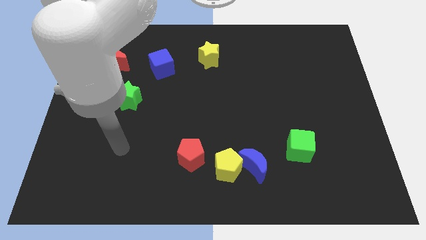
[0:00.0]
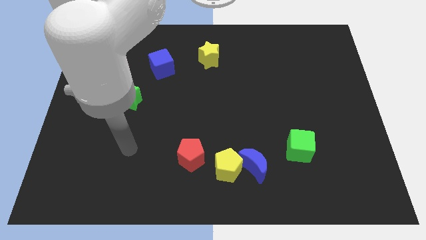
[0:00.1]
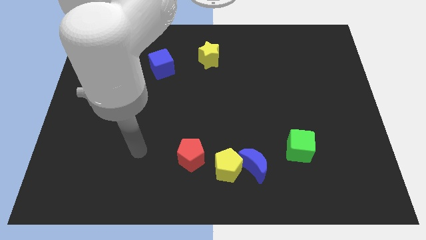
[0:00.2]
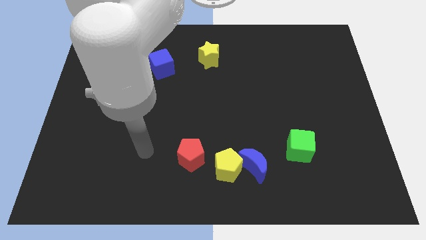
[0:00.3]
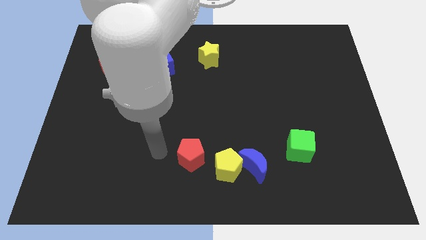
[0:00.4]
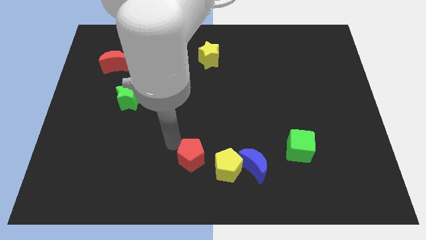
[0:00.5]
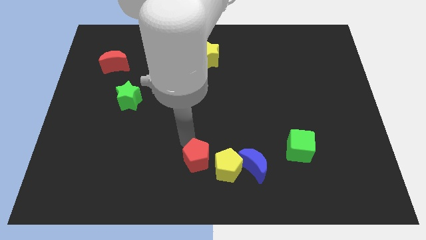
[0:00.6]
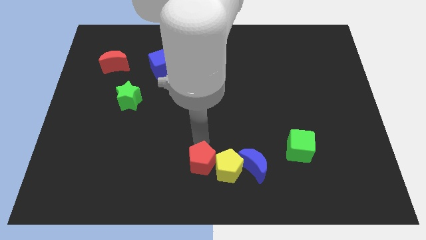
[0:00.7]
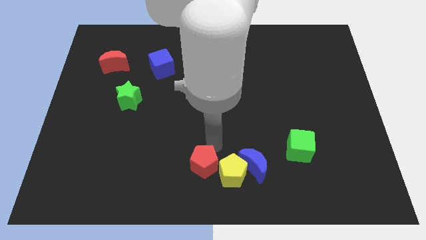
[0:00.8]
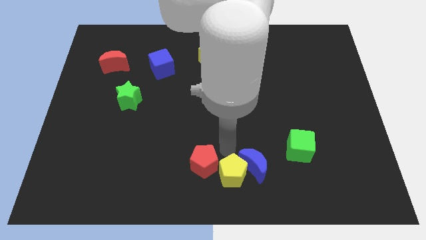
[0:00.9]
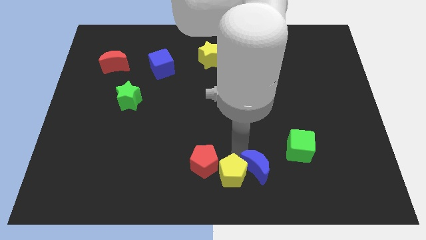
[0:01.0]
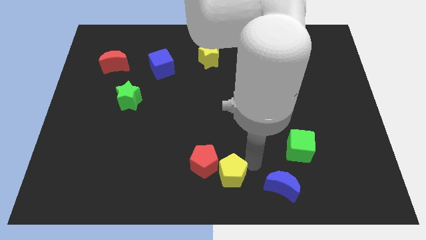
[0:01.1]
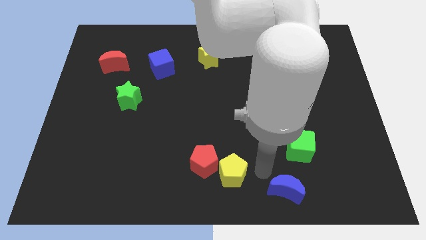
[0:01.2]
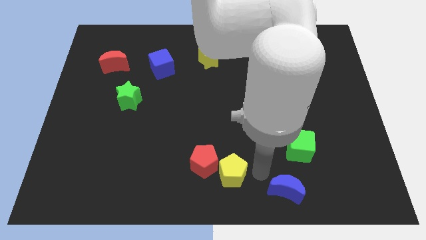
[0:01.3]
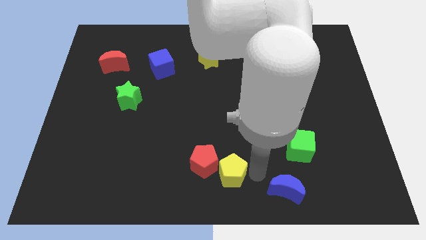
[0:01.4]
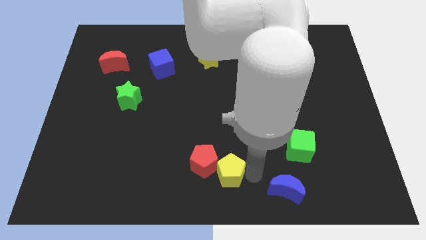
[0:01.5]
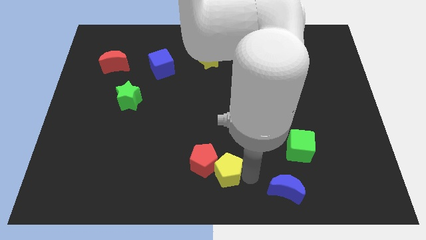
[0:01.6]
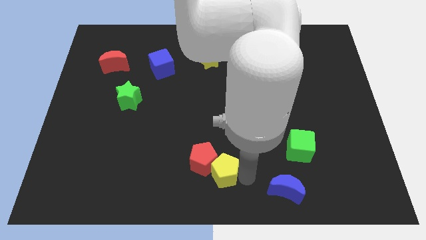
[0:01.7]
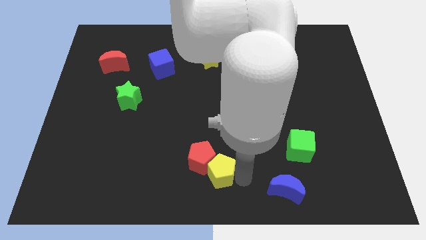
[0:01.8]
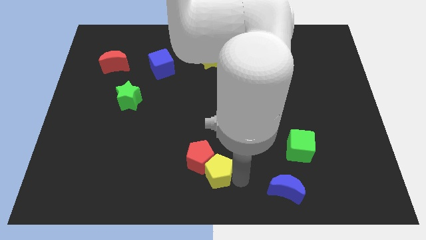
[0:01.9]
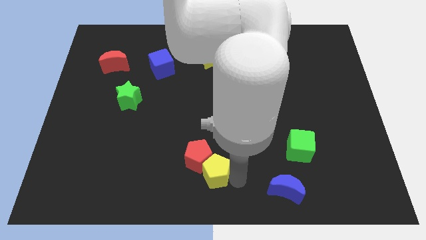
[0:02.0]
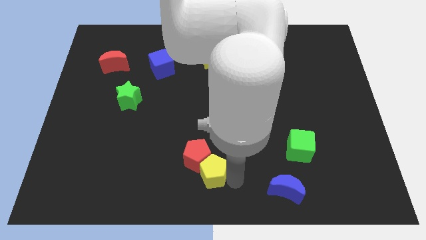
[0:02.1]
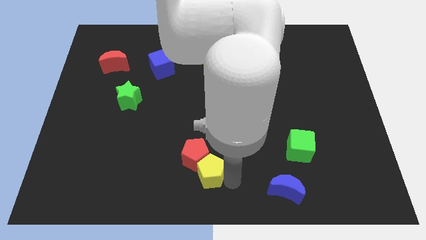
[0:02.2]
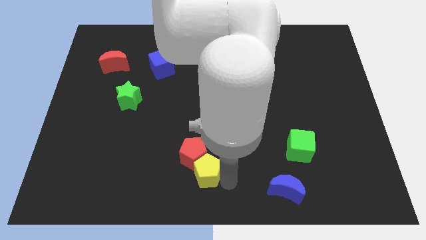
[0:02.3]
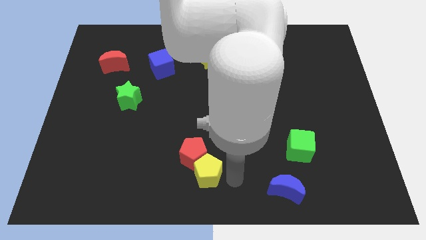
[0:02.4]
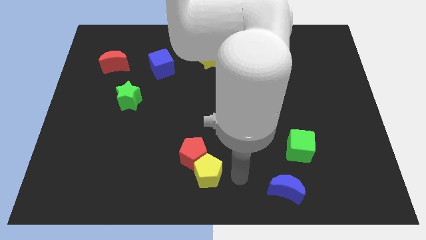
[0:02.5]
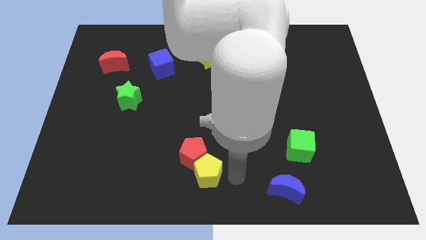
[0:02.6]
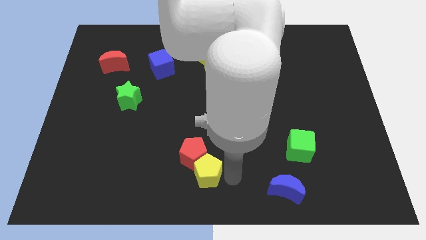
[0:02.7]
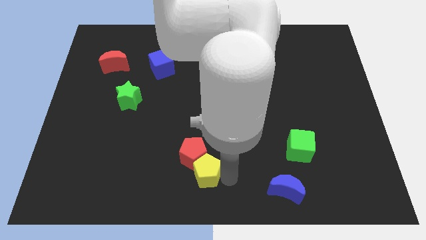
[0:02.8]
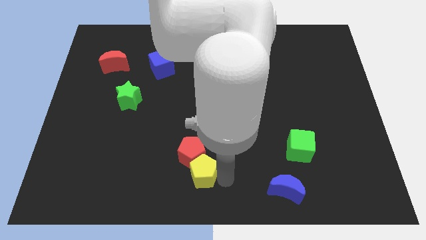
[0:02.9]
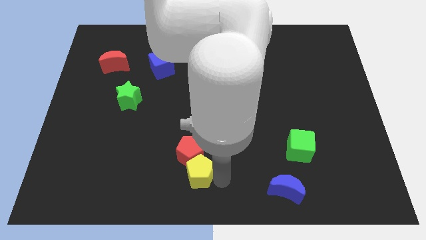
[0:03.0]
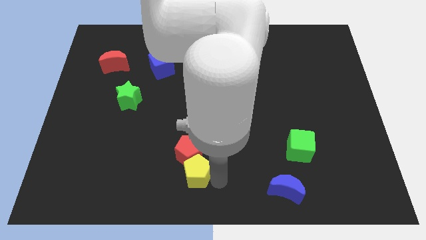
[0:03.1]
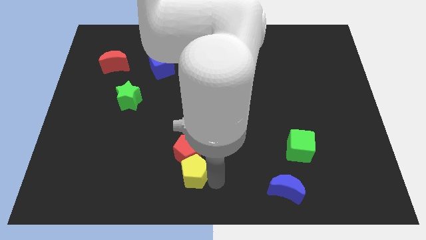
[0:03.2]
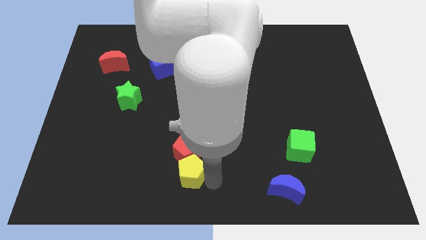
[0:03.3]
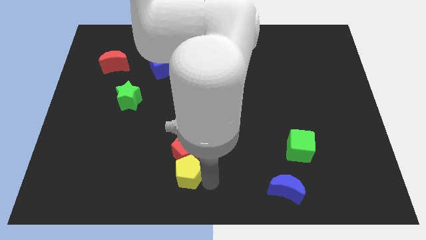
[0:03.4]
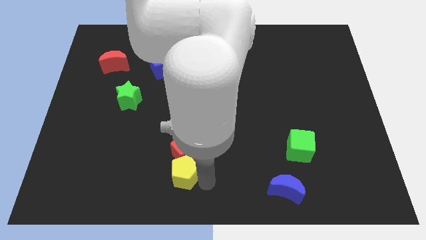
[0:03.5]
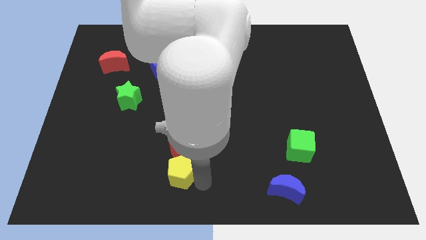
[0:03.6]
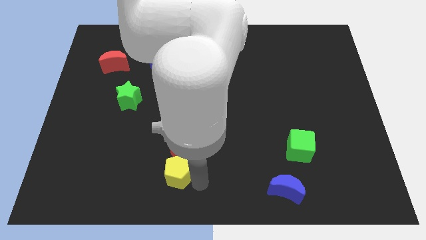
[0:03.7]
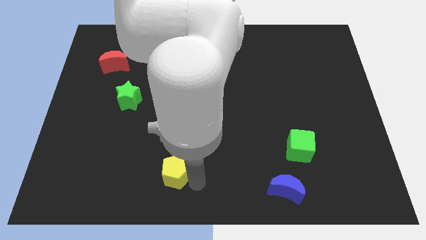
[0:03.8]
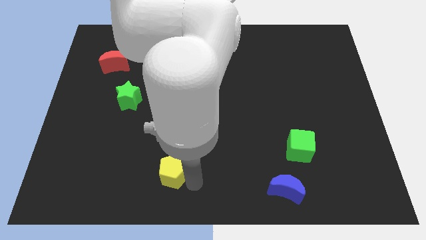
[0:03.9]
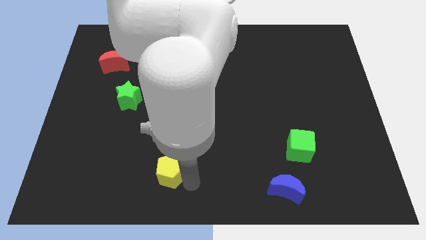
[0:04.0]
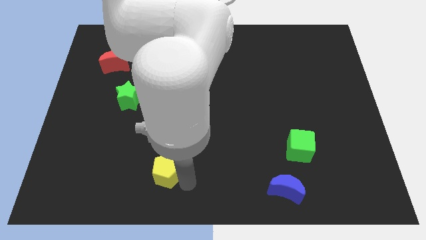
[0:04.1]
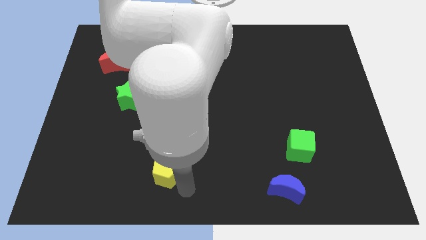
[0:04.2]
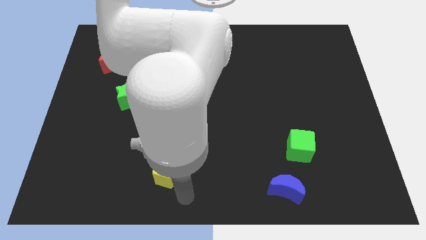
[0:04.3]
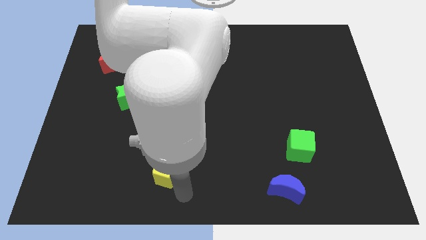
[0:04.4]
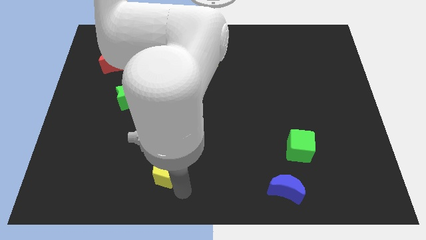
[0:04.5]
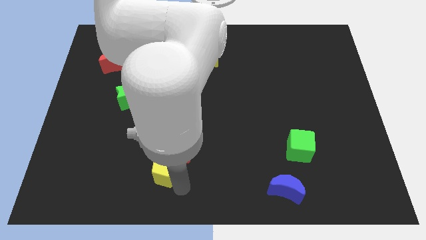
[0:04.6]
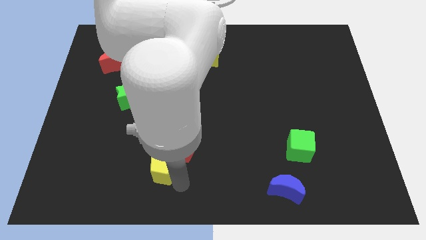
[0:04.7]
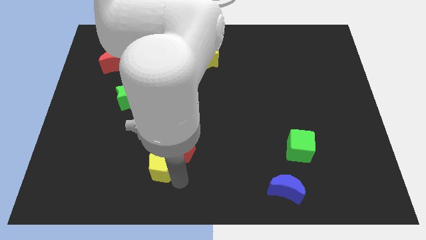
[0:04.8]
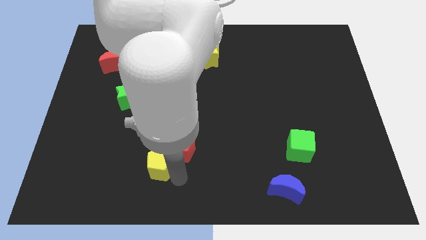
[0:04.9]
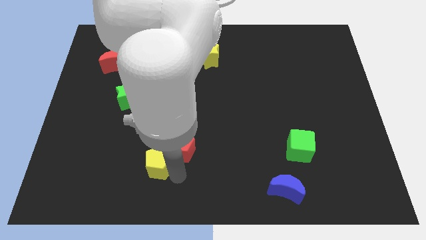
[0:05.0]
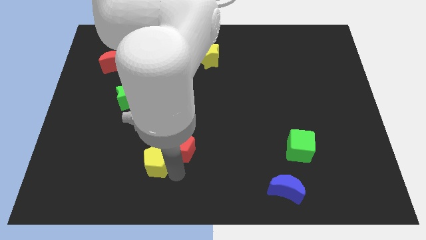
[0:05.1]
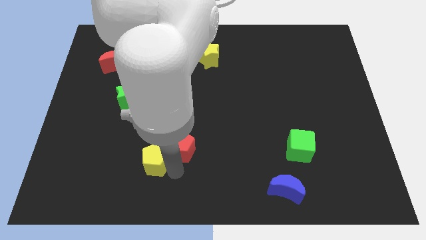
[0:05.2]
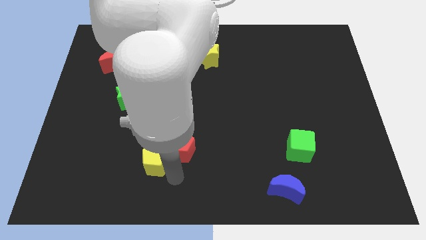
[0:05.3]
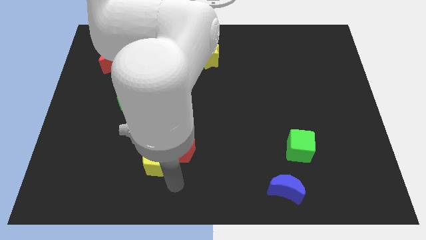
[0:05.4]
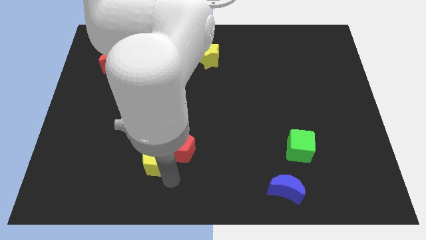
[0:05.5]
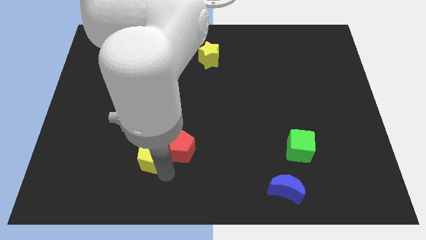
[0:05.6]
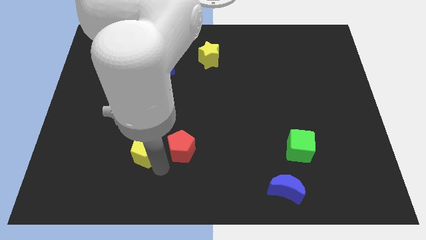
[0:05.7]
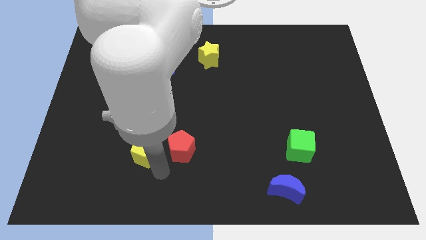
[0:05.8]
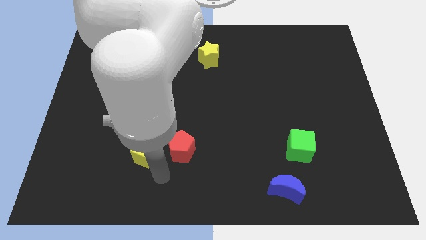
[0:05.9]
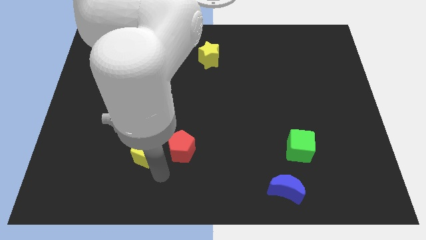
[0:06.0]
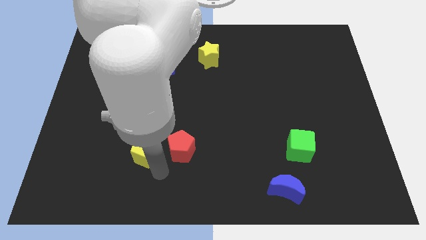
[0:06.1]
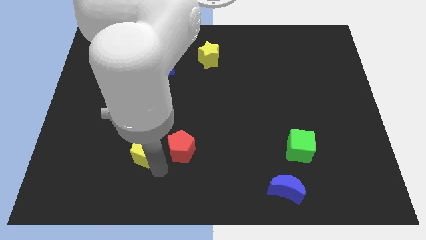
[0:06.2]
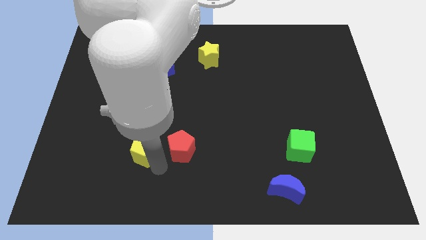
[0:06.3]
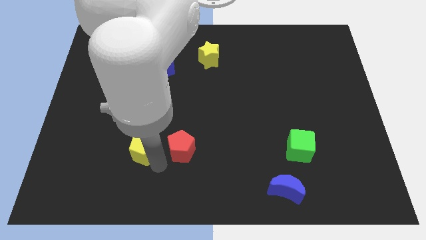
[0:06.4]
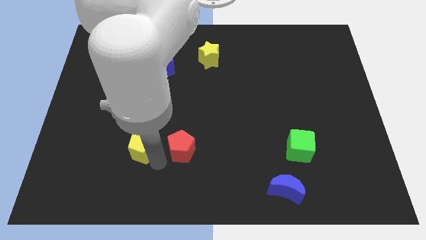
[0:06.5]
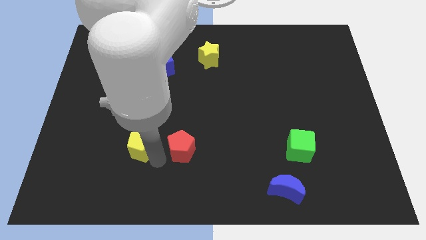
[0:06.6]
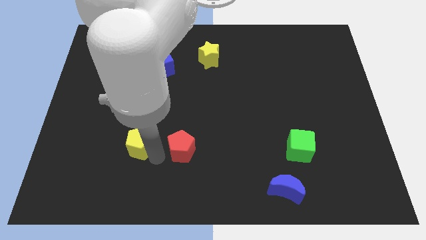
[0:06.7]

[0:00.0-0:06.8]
put the yellow pentagon to the bottom of the green star

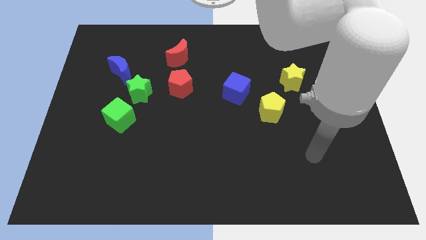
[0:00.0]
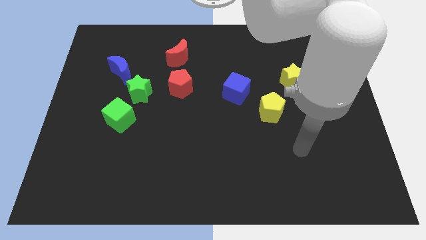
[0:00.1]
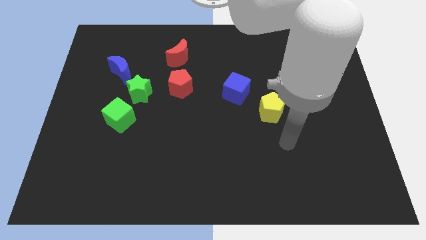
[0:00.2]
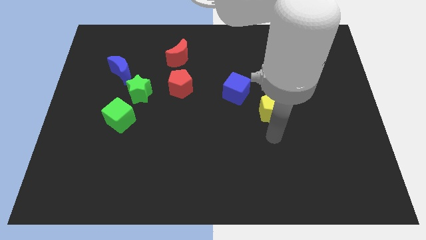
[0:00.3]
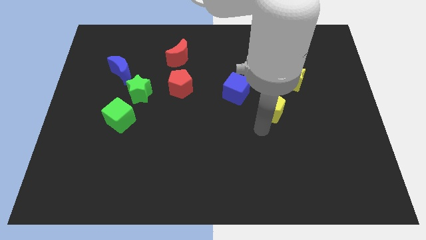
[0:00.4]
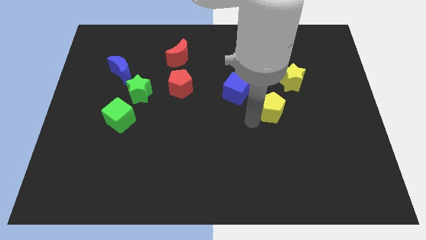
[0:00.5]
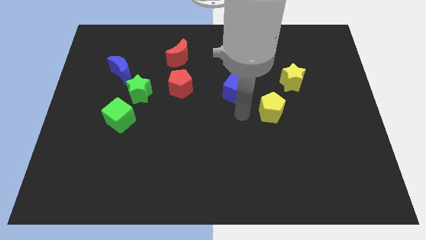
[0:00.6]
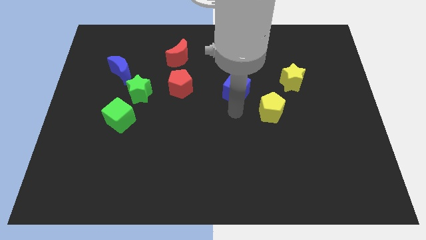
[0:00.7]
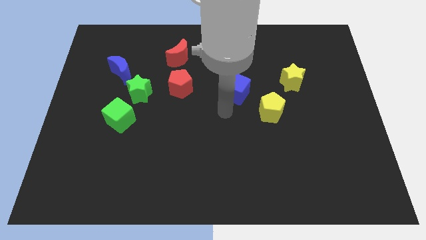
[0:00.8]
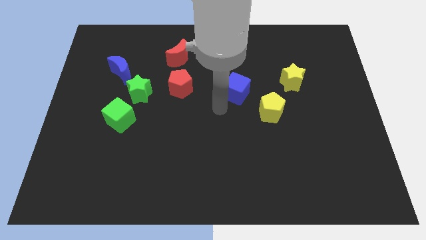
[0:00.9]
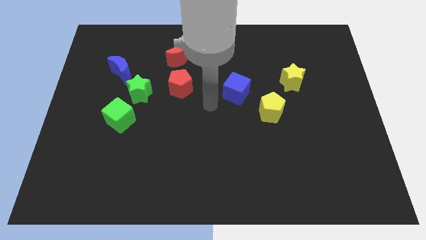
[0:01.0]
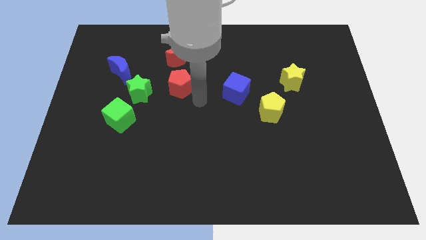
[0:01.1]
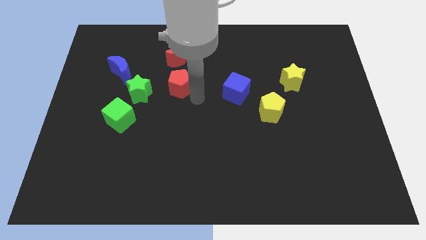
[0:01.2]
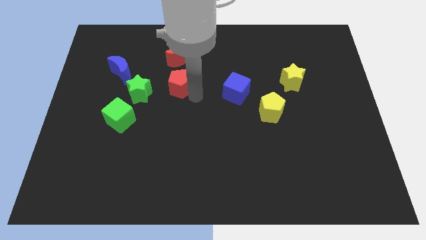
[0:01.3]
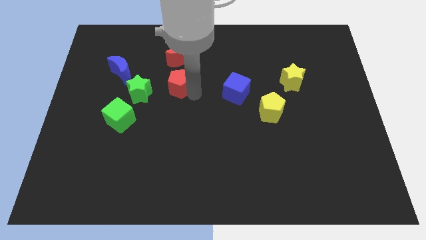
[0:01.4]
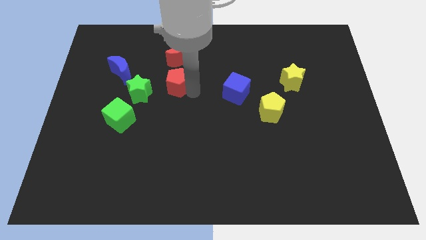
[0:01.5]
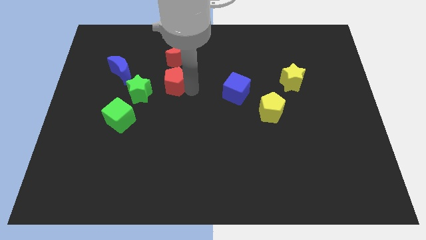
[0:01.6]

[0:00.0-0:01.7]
put the red pentagon just right of the blue moon
